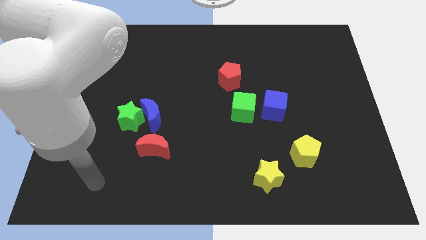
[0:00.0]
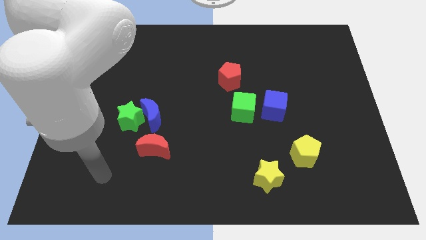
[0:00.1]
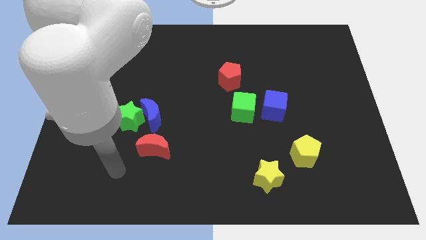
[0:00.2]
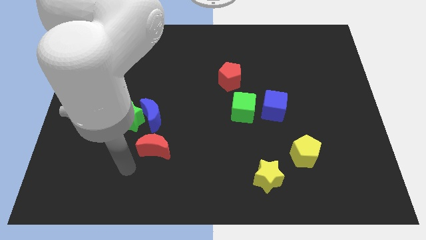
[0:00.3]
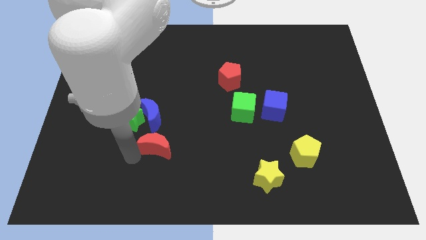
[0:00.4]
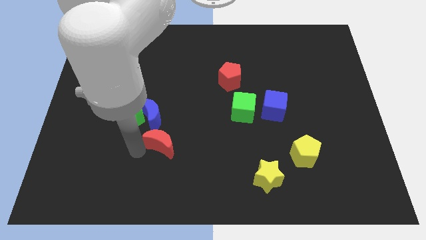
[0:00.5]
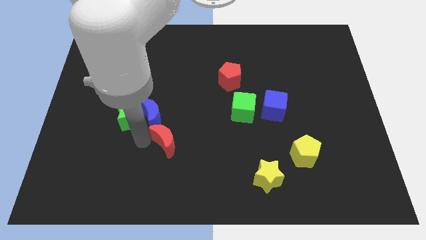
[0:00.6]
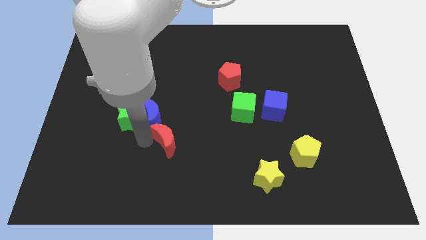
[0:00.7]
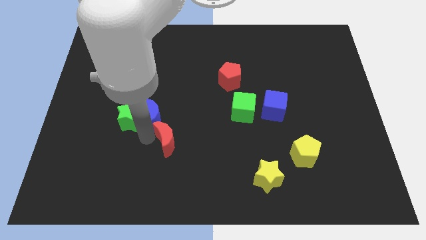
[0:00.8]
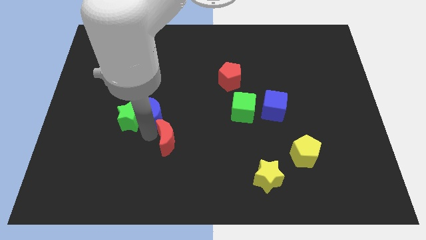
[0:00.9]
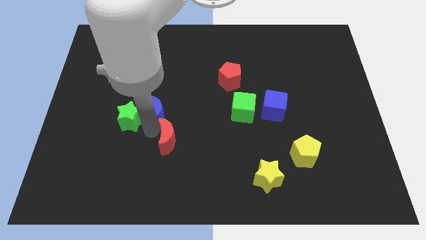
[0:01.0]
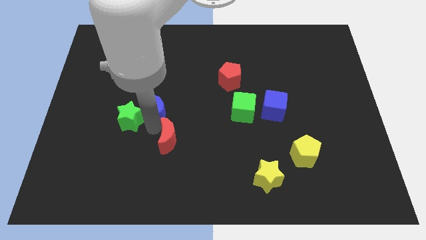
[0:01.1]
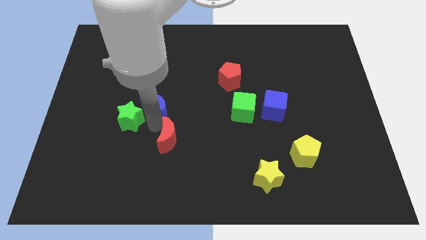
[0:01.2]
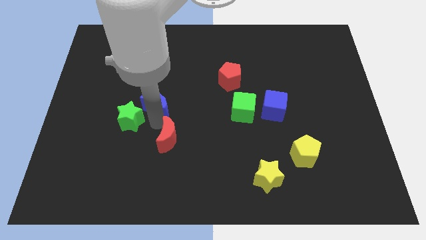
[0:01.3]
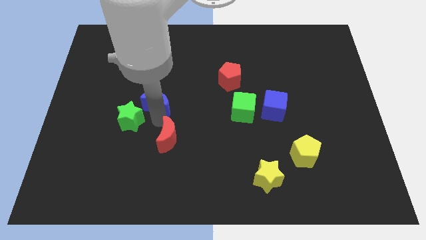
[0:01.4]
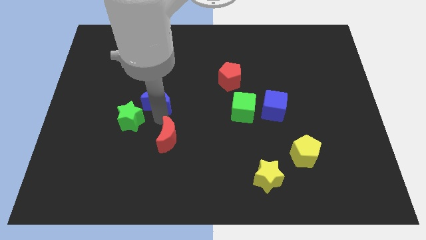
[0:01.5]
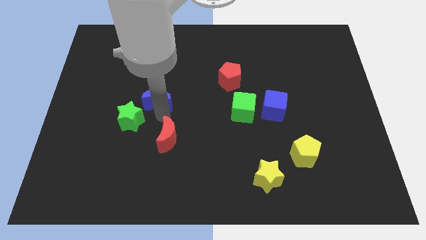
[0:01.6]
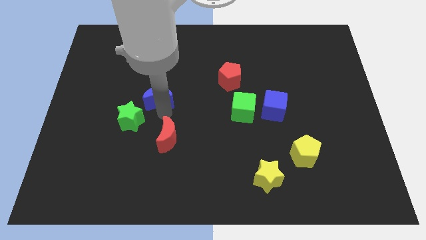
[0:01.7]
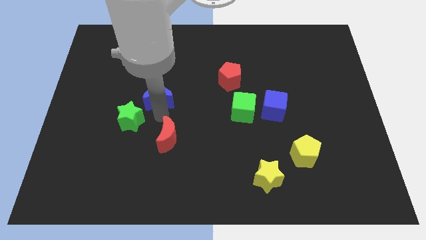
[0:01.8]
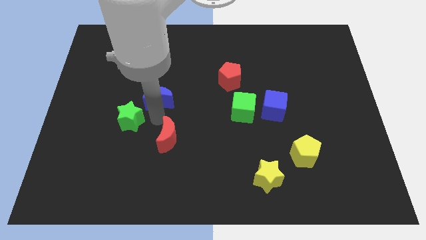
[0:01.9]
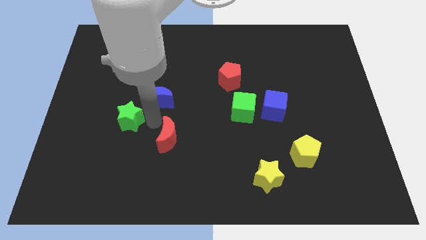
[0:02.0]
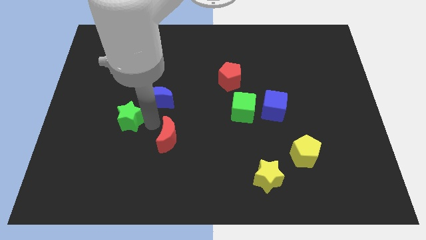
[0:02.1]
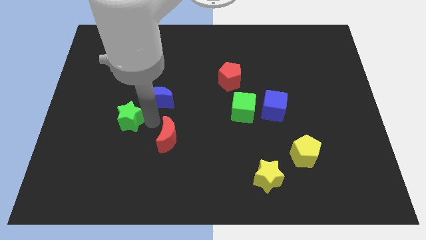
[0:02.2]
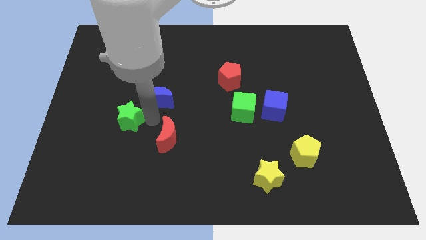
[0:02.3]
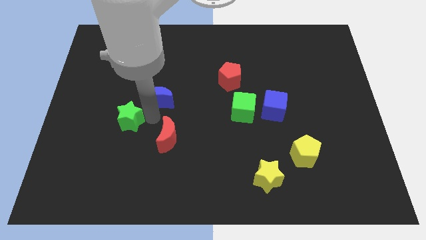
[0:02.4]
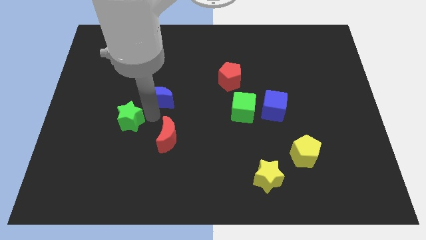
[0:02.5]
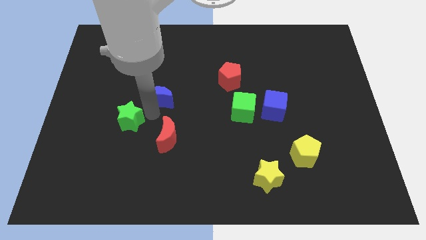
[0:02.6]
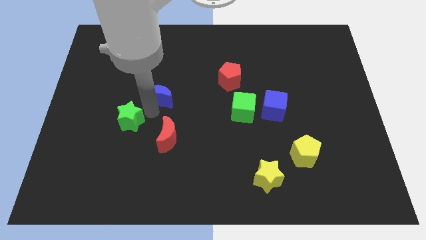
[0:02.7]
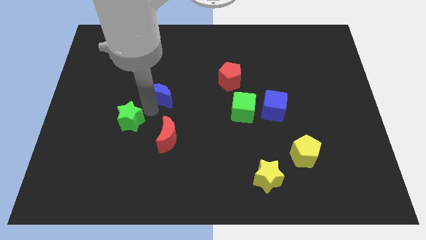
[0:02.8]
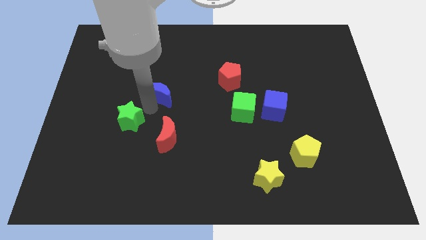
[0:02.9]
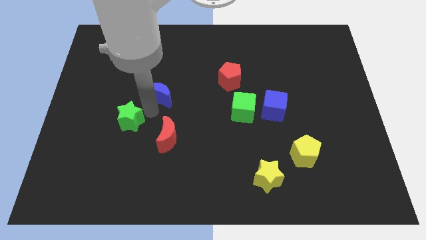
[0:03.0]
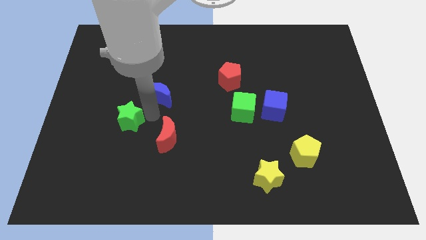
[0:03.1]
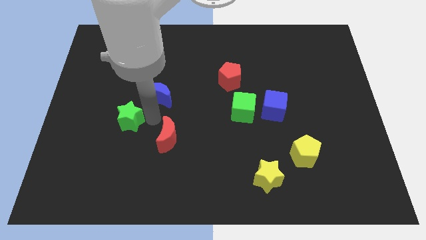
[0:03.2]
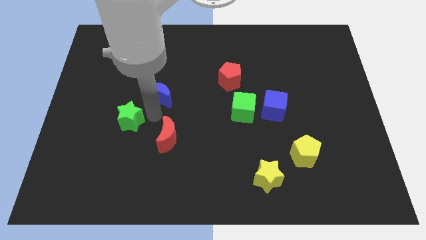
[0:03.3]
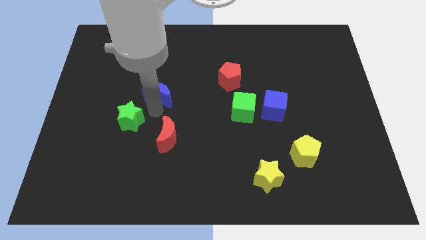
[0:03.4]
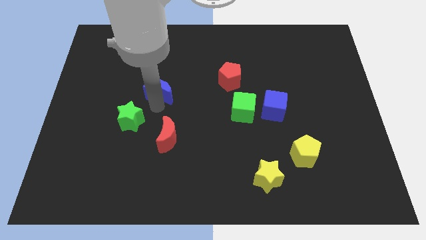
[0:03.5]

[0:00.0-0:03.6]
pull the blue moon apart from the green star and red moon

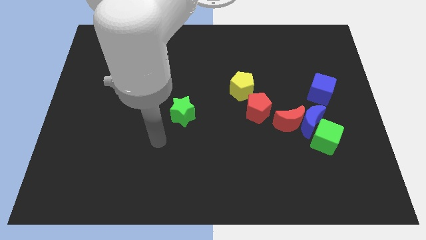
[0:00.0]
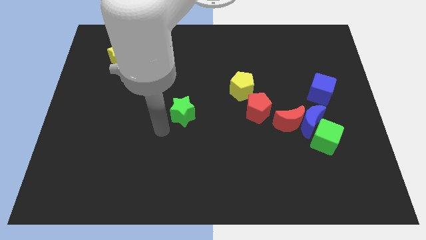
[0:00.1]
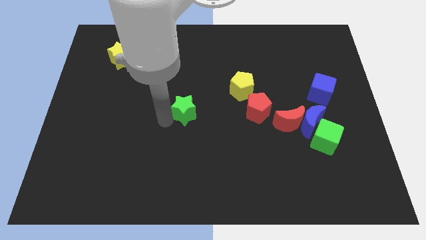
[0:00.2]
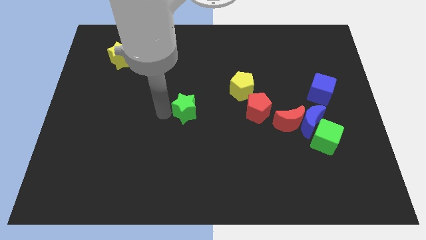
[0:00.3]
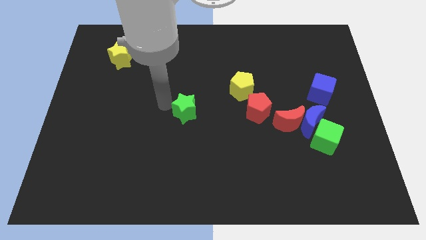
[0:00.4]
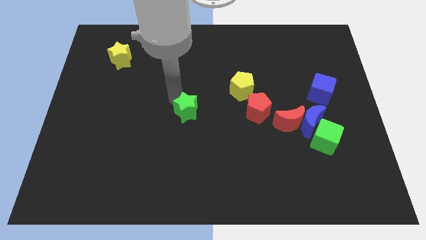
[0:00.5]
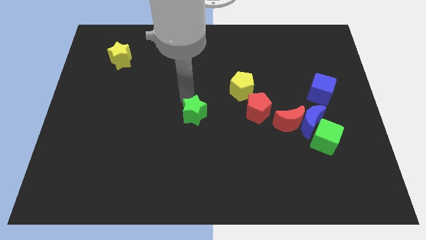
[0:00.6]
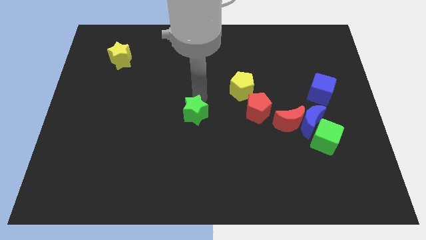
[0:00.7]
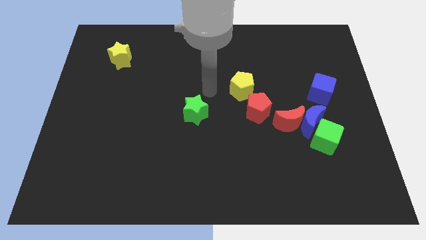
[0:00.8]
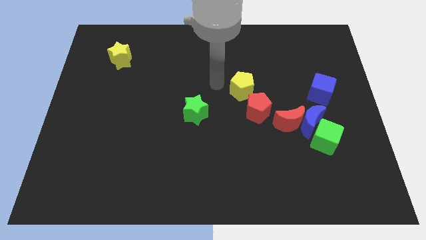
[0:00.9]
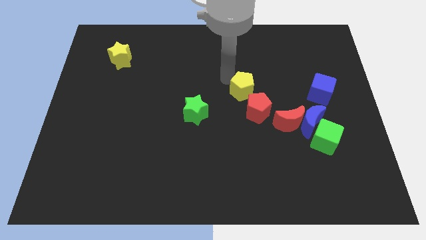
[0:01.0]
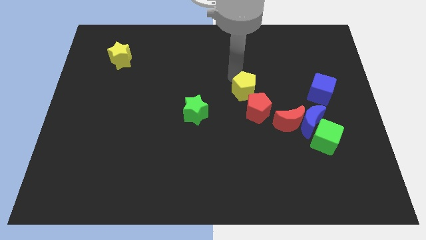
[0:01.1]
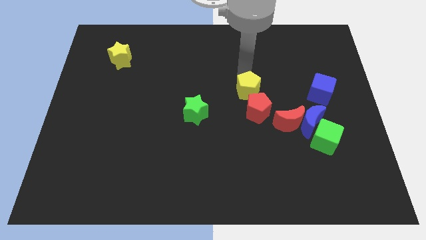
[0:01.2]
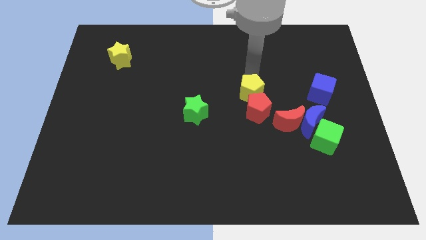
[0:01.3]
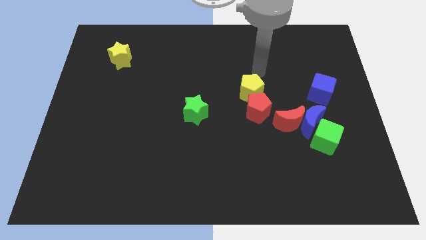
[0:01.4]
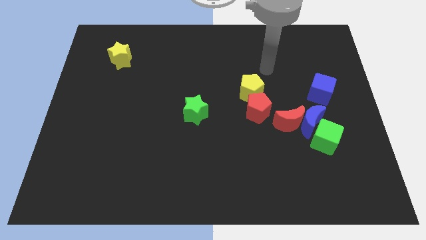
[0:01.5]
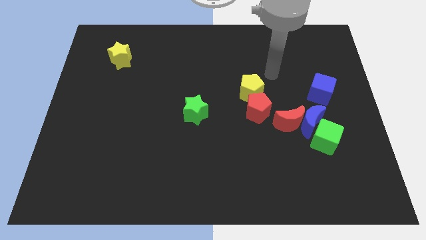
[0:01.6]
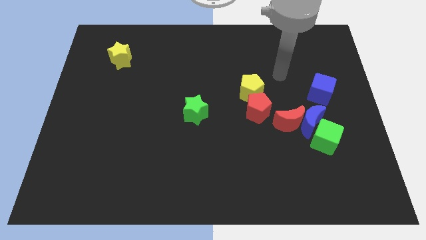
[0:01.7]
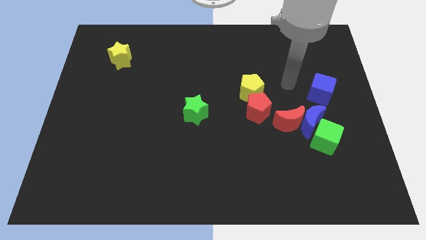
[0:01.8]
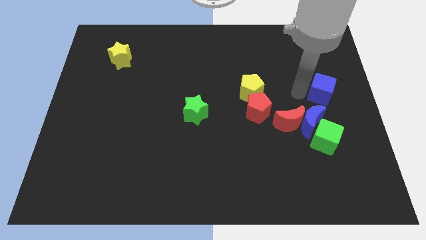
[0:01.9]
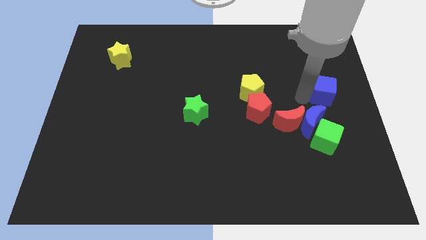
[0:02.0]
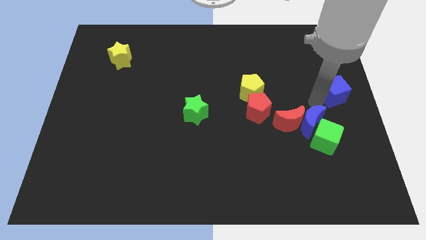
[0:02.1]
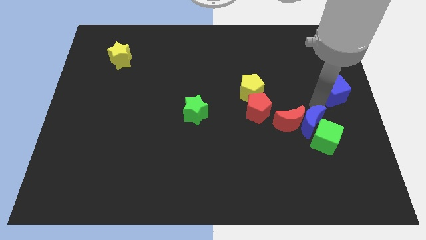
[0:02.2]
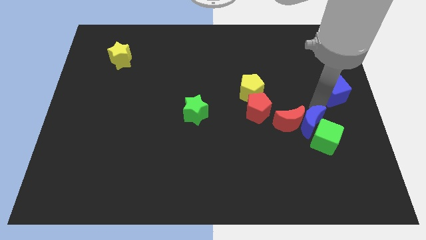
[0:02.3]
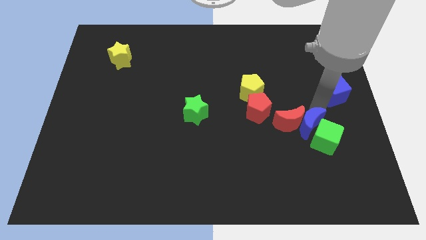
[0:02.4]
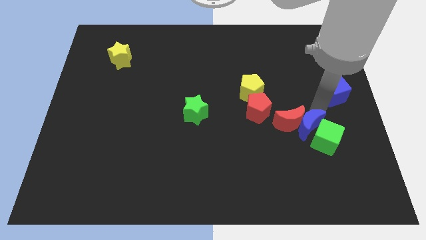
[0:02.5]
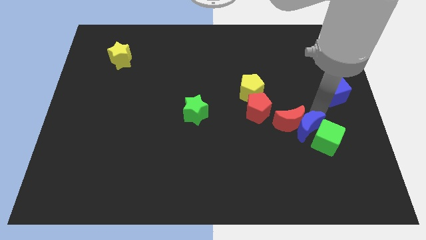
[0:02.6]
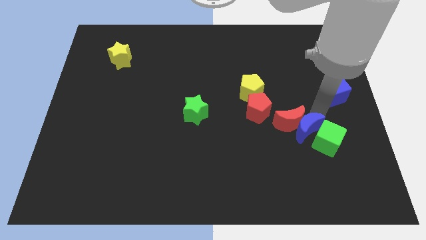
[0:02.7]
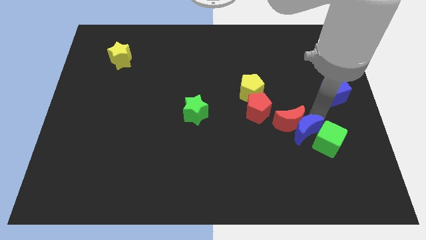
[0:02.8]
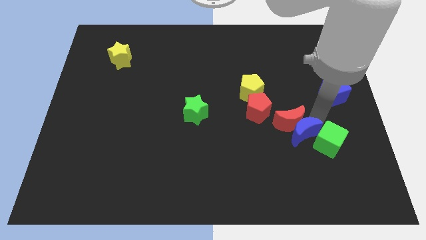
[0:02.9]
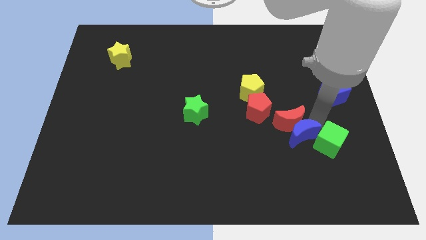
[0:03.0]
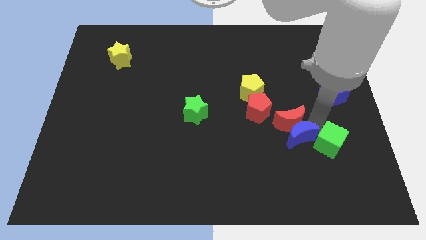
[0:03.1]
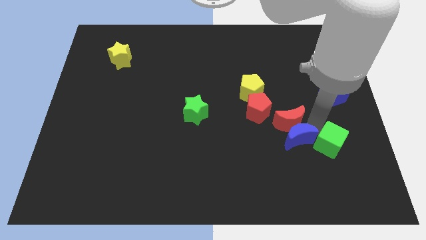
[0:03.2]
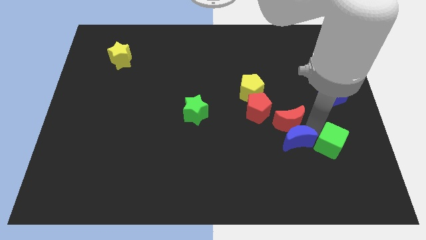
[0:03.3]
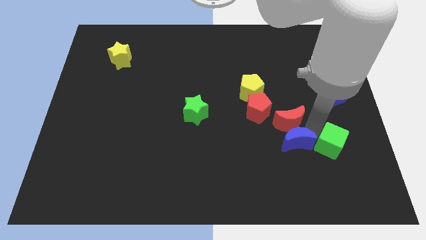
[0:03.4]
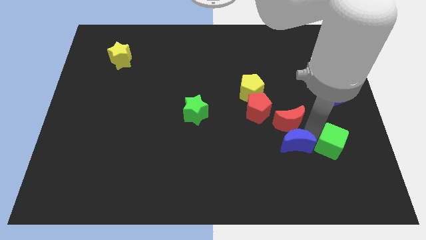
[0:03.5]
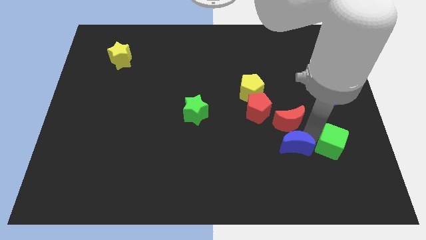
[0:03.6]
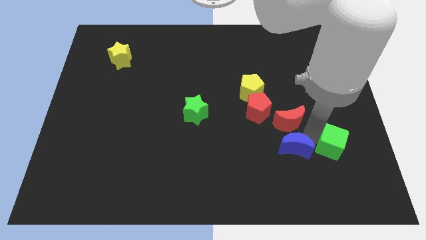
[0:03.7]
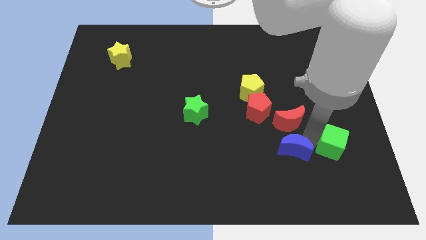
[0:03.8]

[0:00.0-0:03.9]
separate the blue moon from the group of blocks

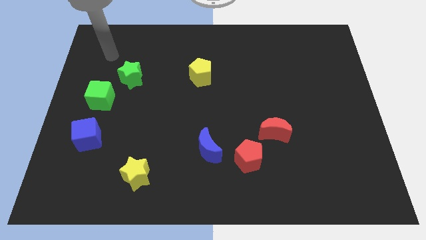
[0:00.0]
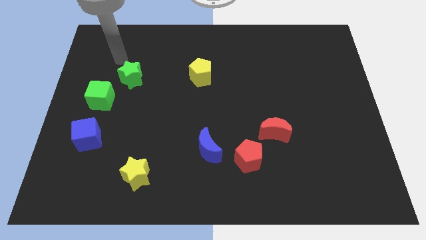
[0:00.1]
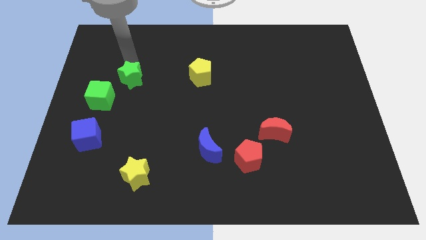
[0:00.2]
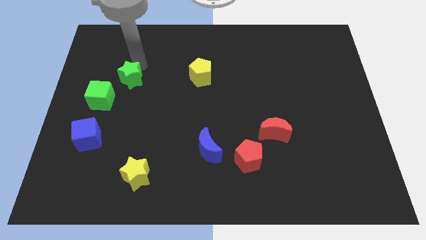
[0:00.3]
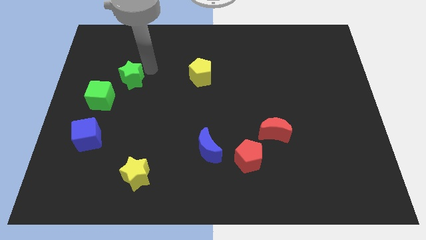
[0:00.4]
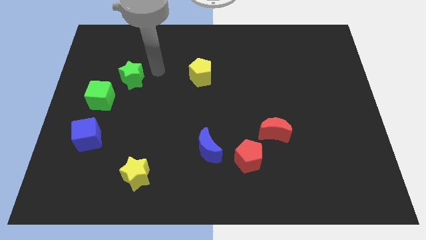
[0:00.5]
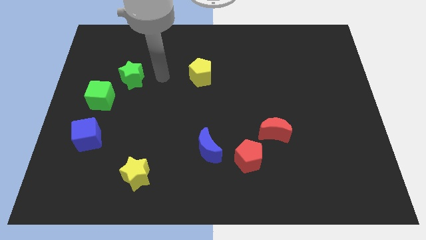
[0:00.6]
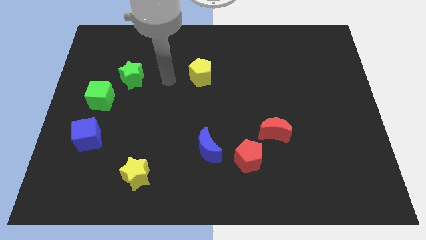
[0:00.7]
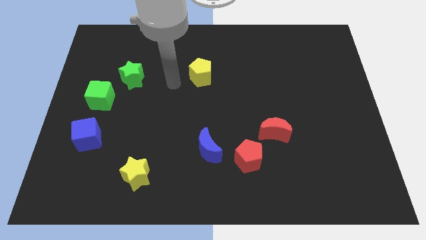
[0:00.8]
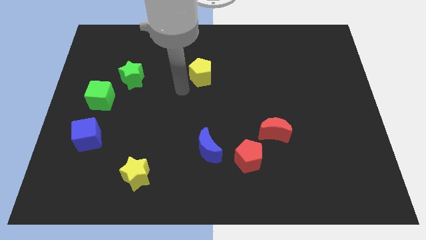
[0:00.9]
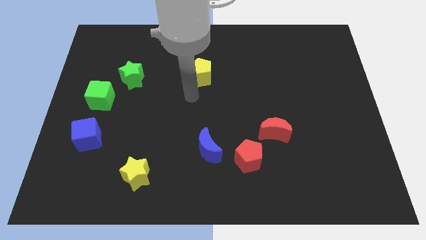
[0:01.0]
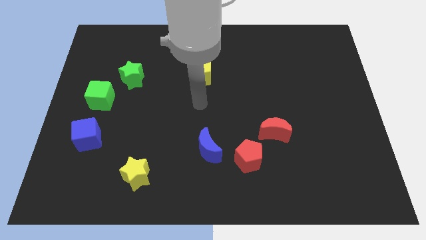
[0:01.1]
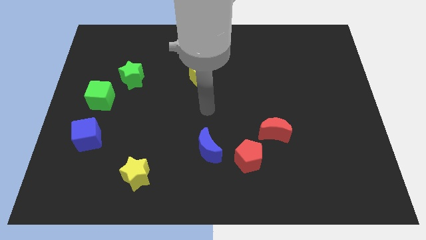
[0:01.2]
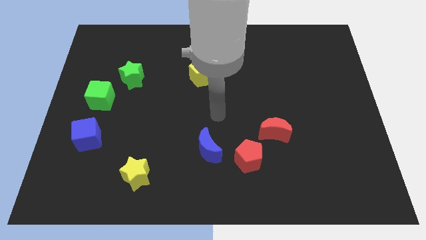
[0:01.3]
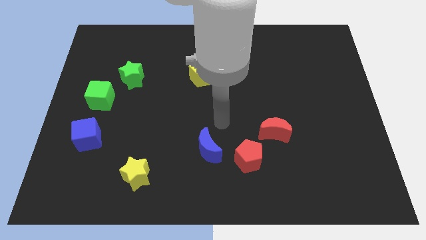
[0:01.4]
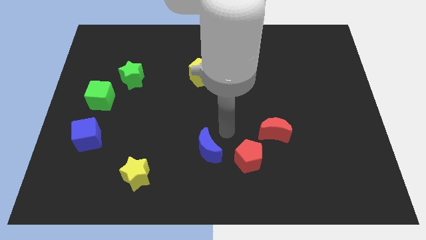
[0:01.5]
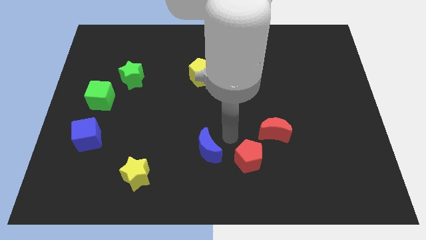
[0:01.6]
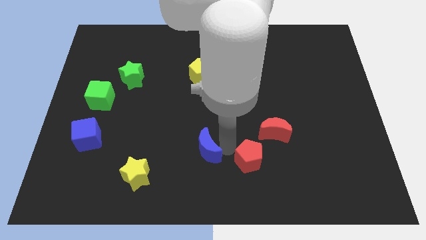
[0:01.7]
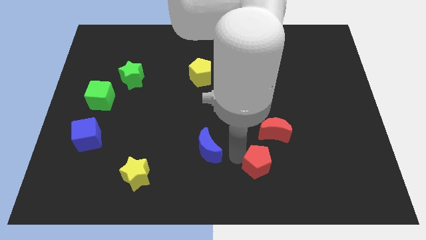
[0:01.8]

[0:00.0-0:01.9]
move the blue moon away from the red pentagon
